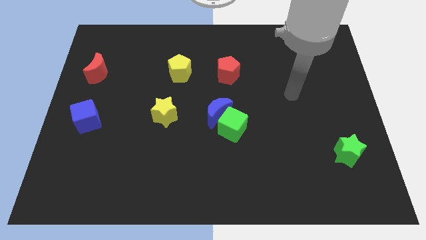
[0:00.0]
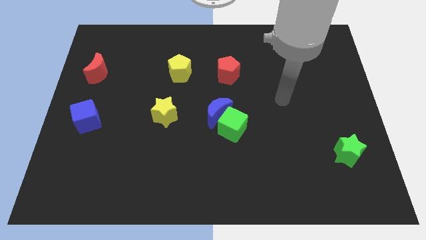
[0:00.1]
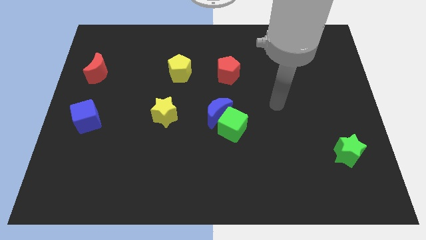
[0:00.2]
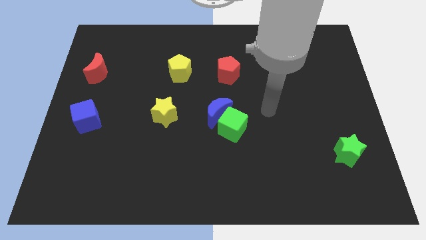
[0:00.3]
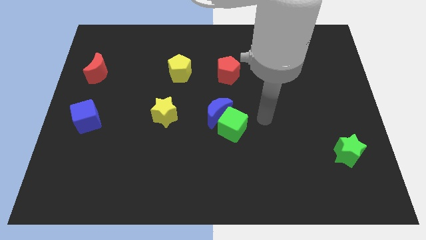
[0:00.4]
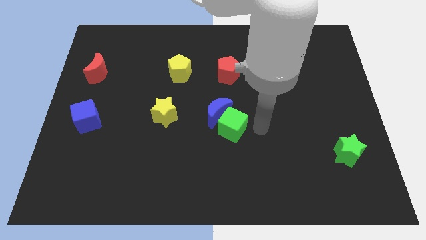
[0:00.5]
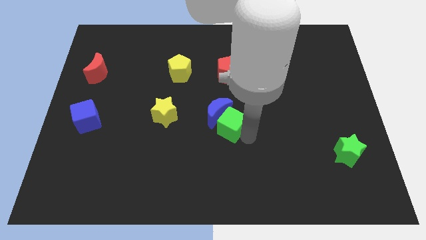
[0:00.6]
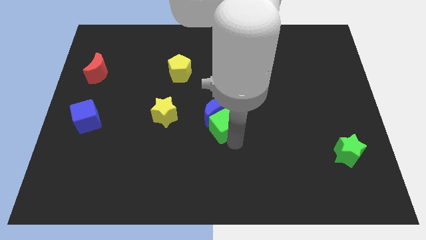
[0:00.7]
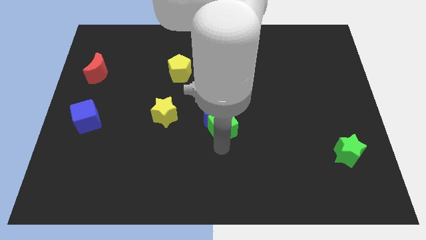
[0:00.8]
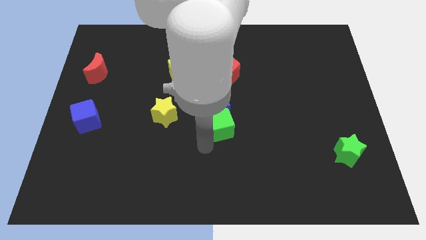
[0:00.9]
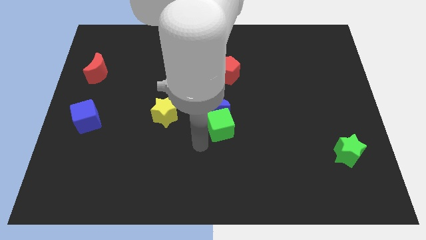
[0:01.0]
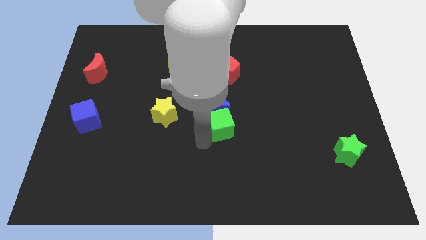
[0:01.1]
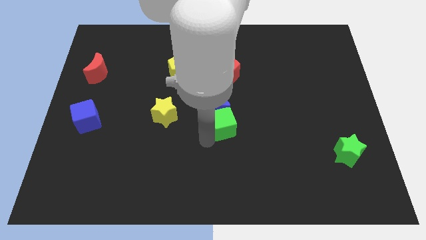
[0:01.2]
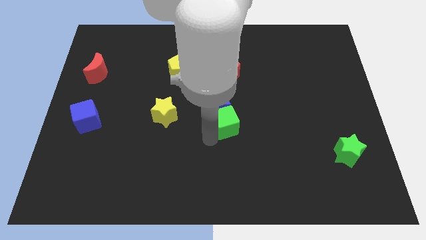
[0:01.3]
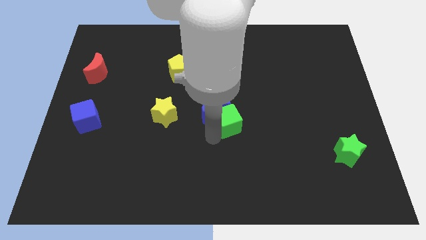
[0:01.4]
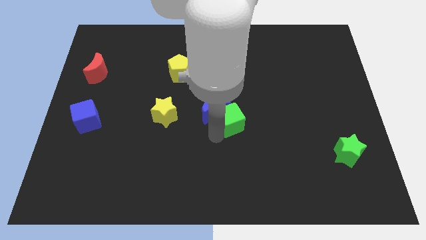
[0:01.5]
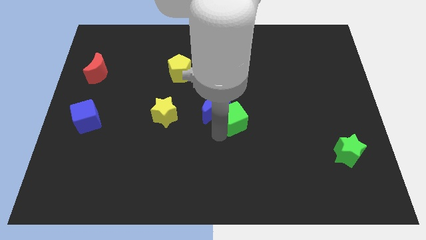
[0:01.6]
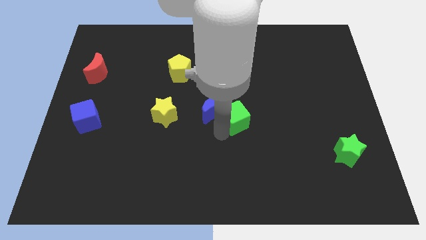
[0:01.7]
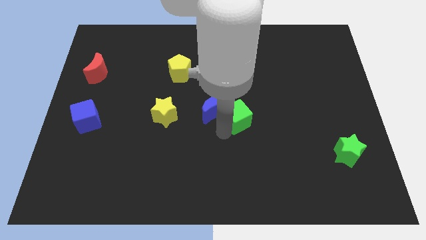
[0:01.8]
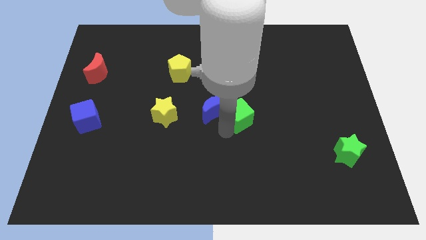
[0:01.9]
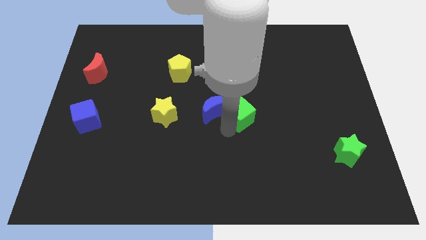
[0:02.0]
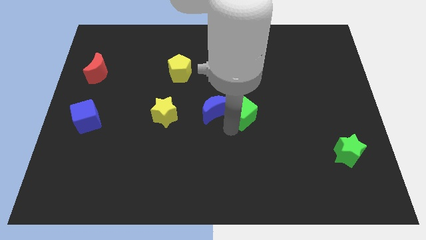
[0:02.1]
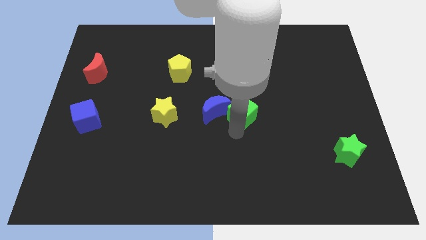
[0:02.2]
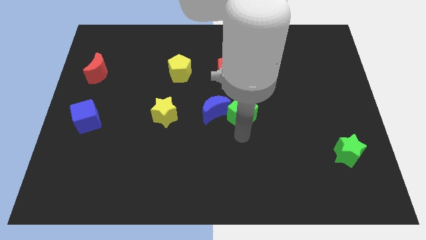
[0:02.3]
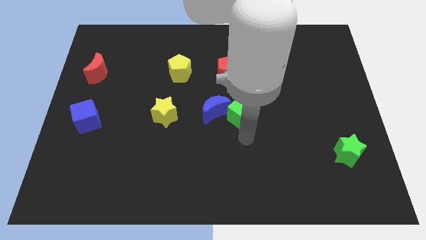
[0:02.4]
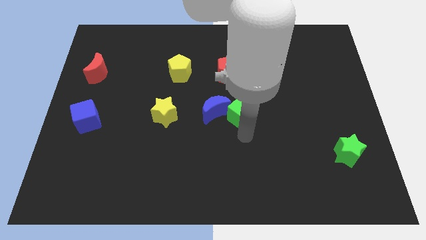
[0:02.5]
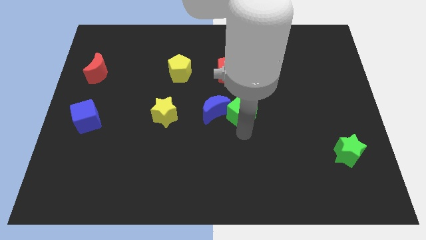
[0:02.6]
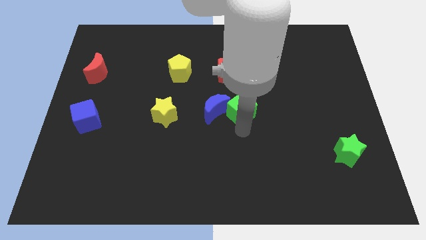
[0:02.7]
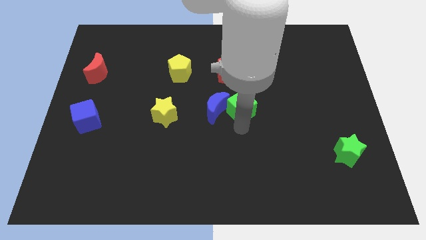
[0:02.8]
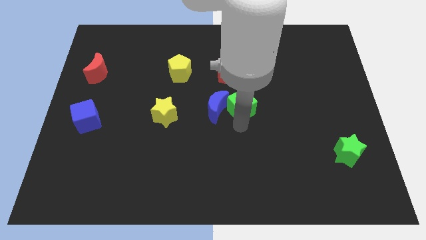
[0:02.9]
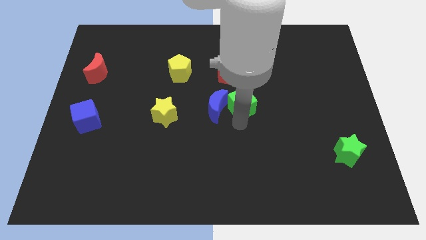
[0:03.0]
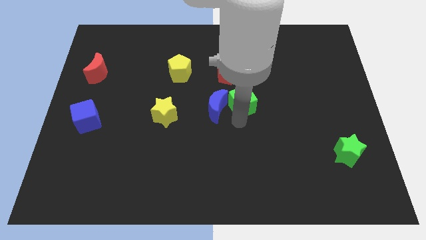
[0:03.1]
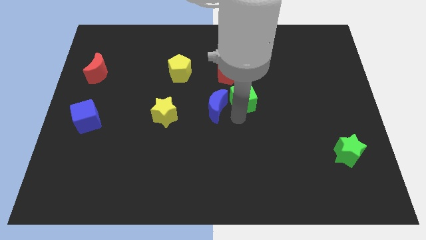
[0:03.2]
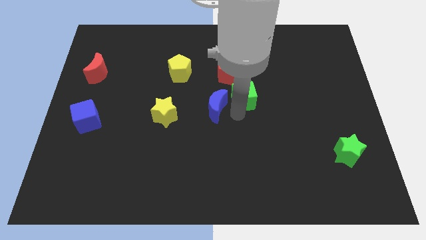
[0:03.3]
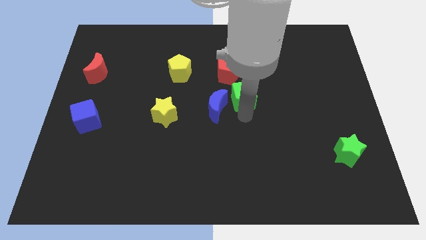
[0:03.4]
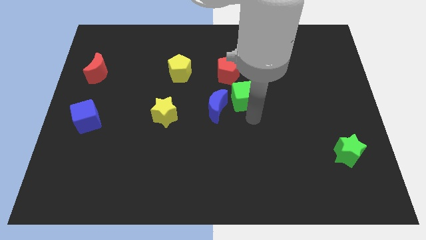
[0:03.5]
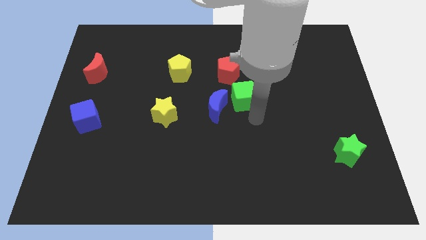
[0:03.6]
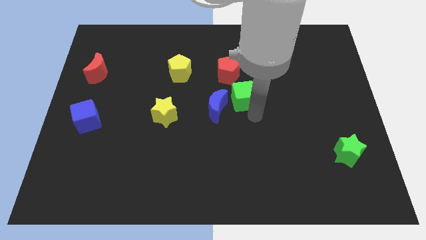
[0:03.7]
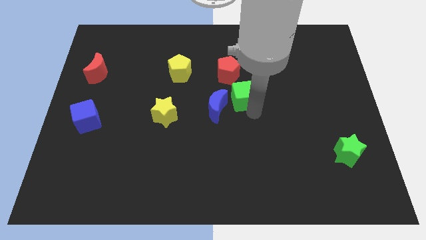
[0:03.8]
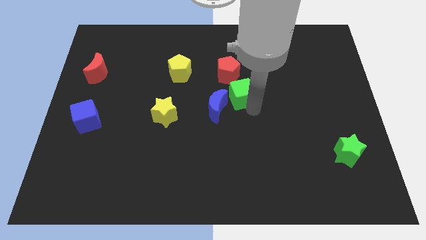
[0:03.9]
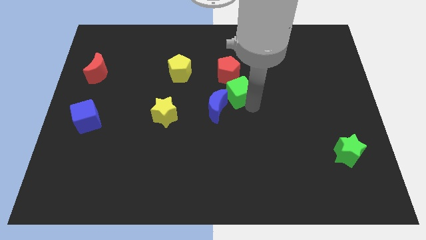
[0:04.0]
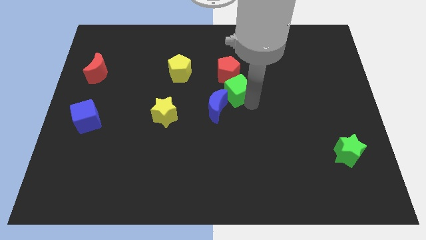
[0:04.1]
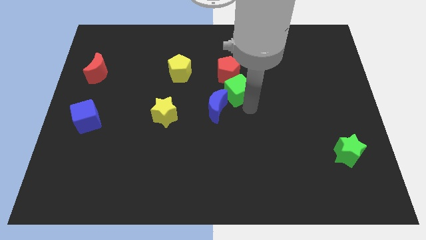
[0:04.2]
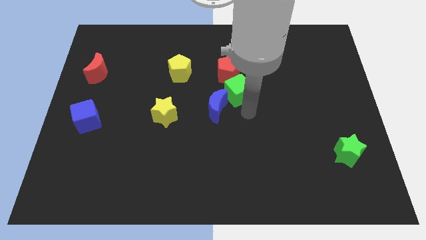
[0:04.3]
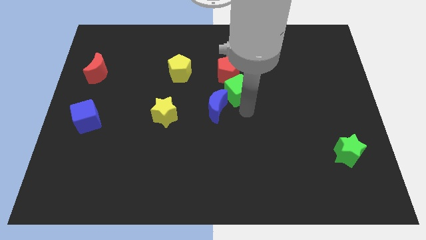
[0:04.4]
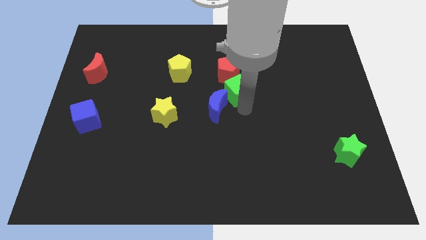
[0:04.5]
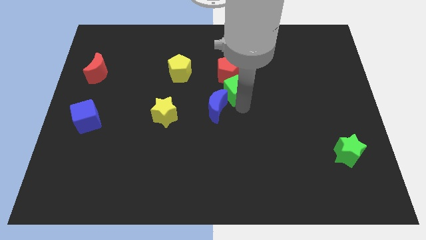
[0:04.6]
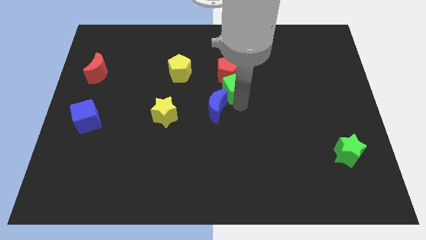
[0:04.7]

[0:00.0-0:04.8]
put the green cube towards the red pentagon

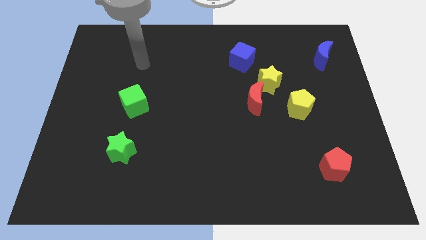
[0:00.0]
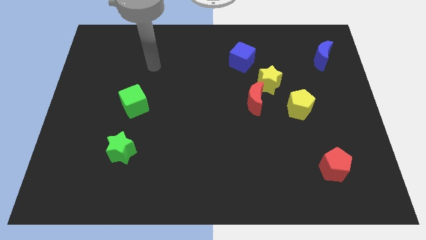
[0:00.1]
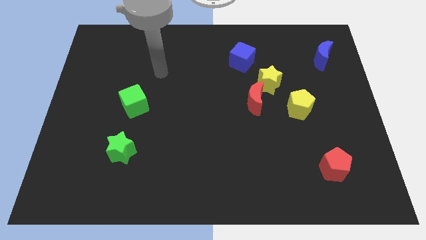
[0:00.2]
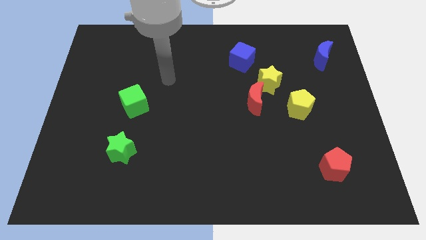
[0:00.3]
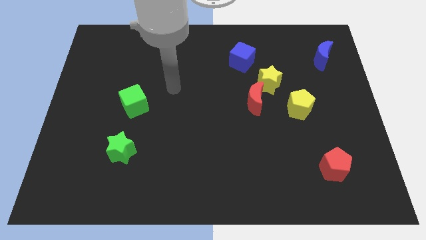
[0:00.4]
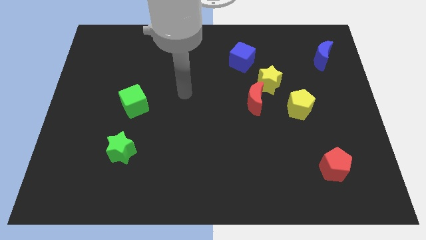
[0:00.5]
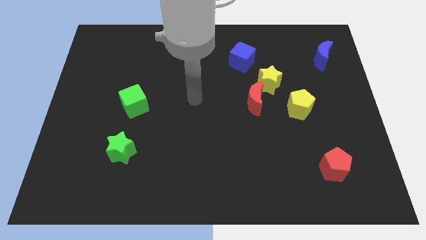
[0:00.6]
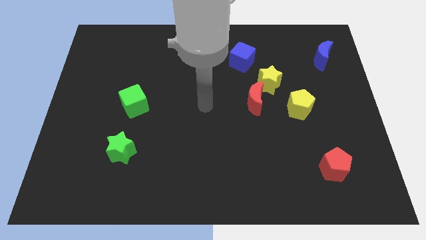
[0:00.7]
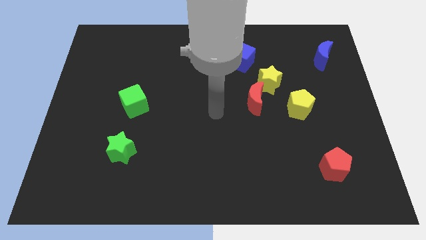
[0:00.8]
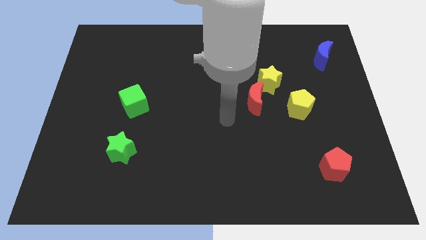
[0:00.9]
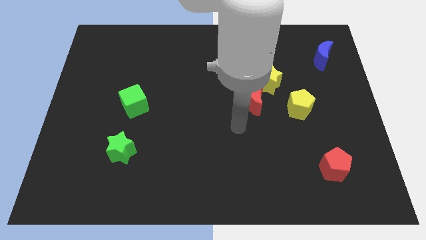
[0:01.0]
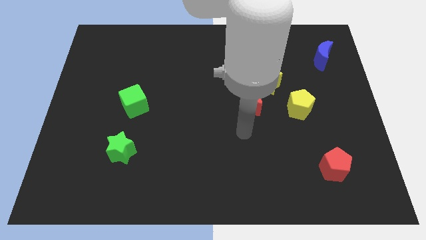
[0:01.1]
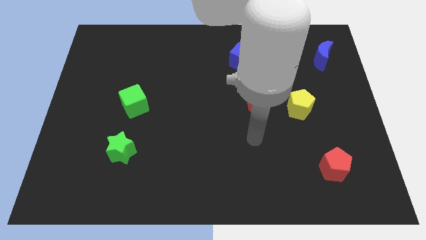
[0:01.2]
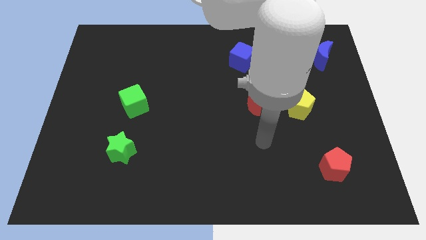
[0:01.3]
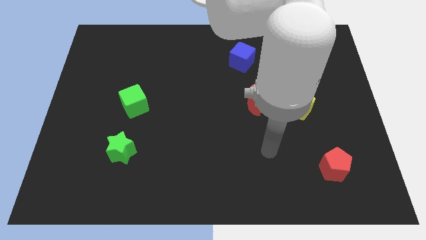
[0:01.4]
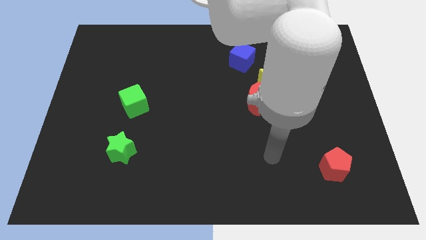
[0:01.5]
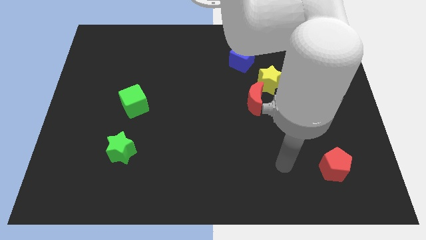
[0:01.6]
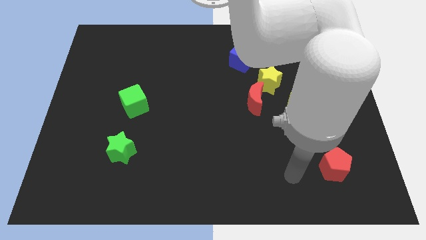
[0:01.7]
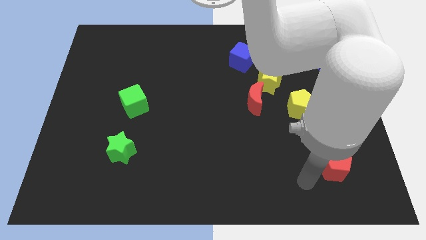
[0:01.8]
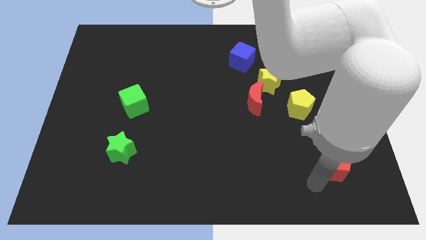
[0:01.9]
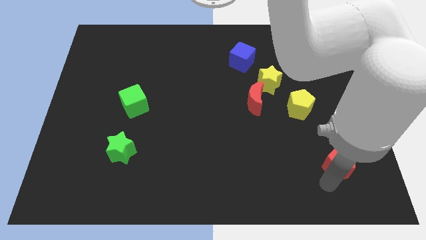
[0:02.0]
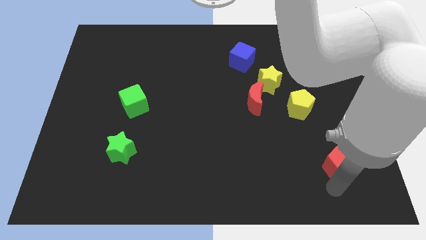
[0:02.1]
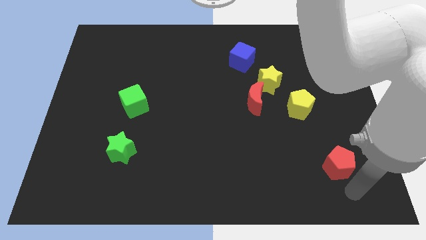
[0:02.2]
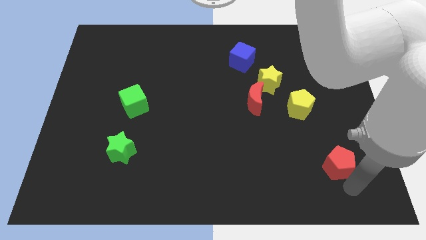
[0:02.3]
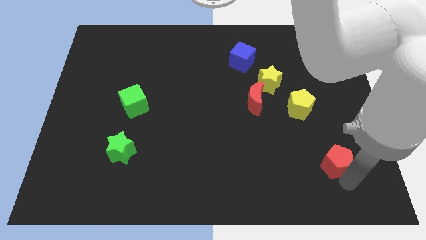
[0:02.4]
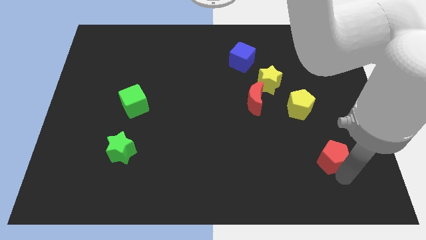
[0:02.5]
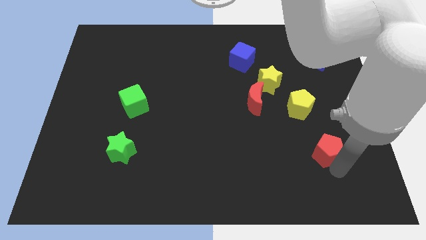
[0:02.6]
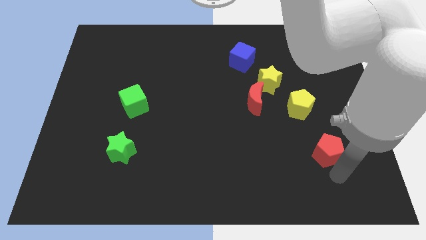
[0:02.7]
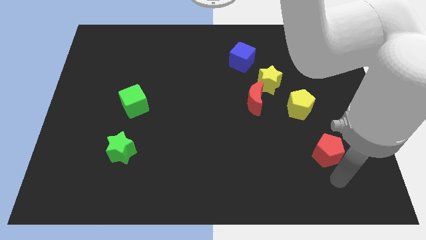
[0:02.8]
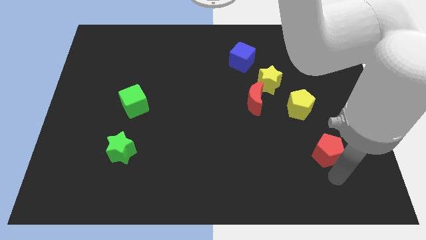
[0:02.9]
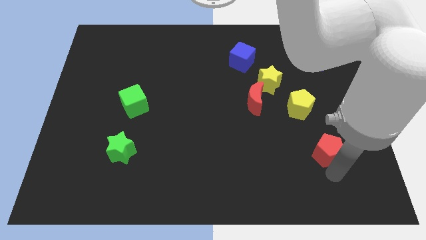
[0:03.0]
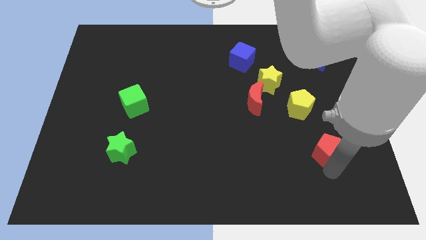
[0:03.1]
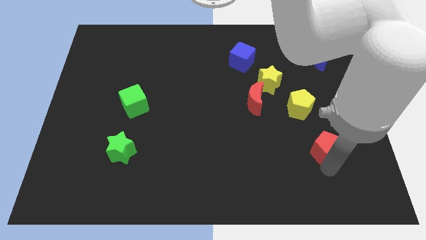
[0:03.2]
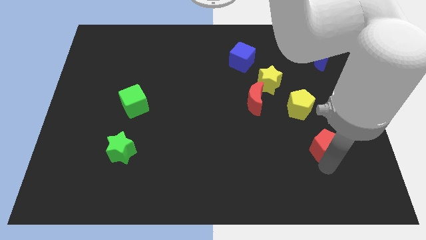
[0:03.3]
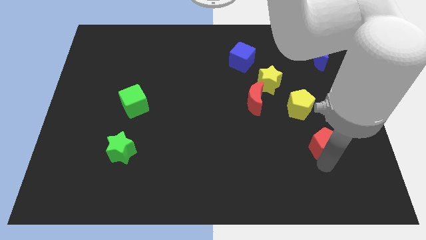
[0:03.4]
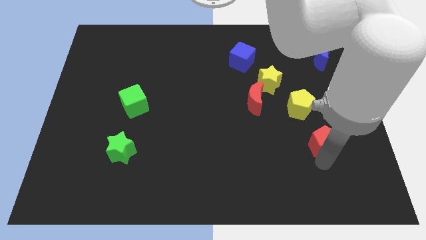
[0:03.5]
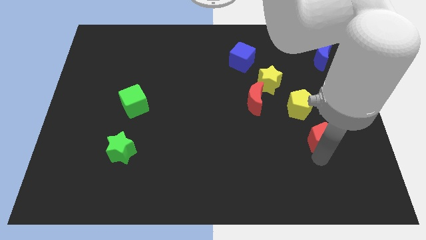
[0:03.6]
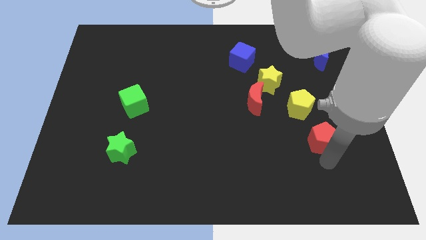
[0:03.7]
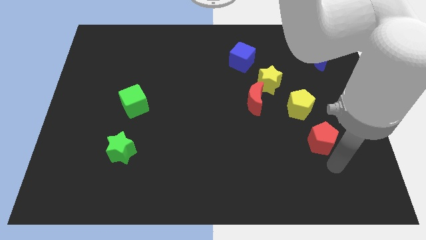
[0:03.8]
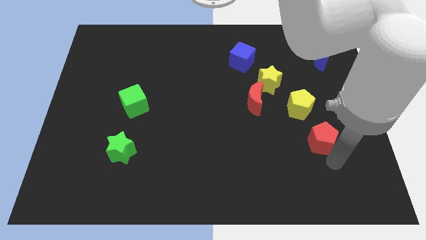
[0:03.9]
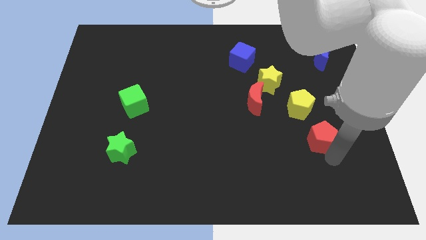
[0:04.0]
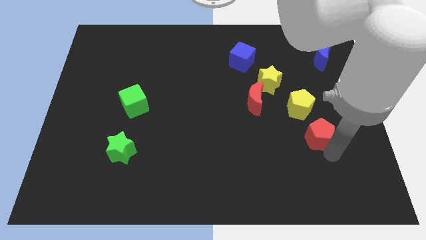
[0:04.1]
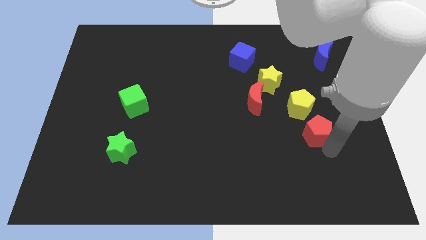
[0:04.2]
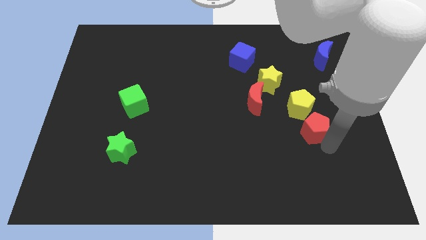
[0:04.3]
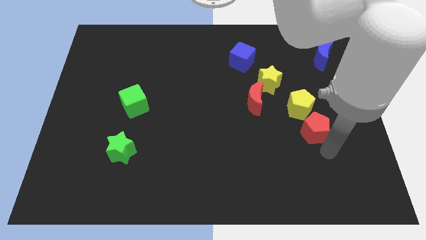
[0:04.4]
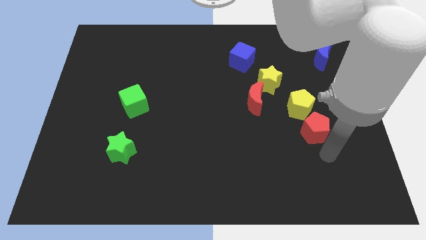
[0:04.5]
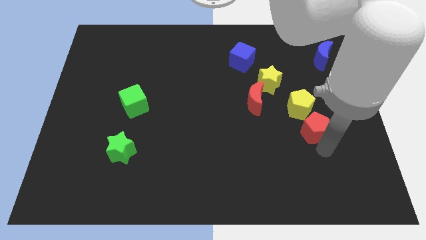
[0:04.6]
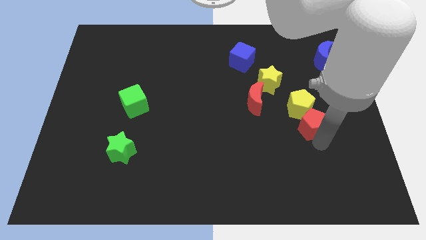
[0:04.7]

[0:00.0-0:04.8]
push the red pentagon to the yellow pentagon
